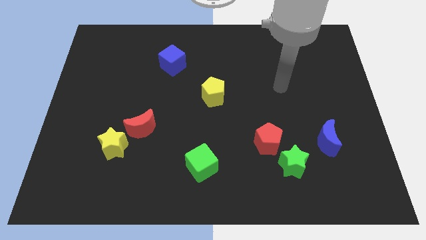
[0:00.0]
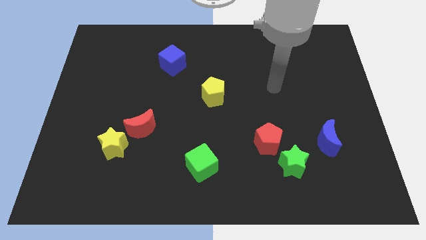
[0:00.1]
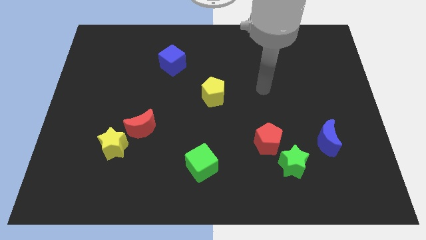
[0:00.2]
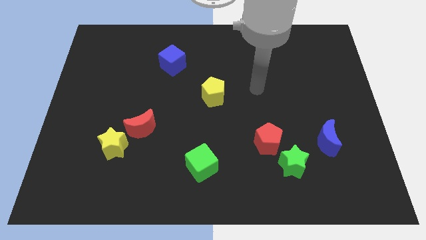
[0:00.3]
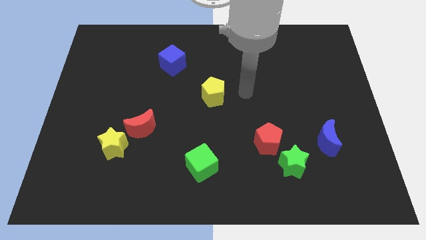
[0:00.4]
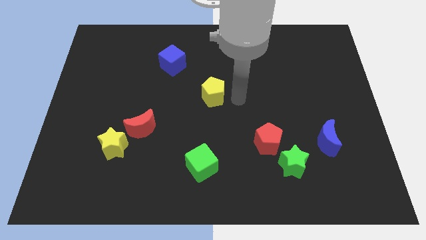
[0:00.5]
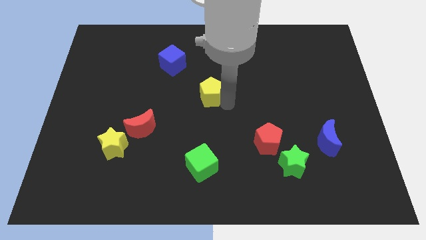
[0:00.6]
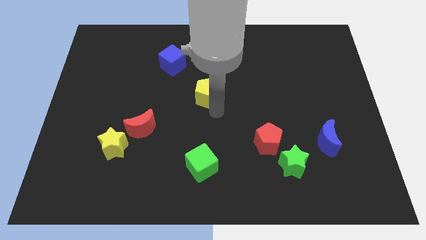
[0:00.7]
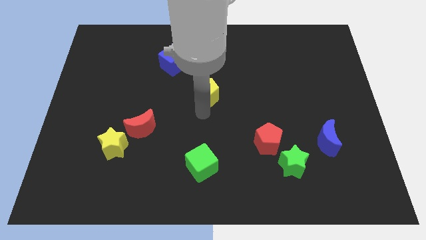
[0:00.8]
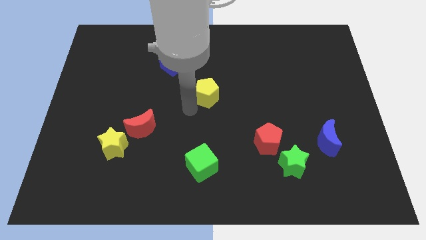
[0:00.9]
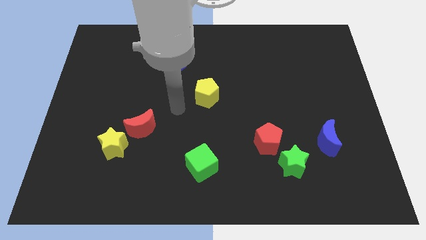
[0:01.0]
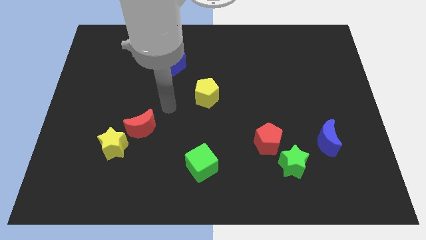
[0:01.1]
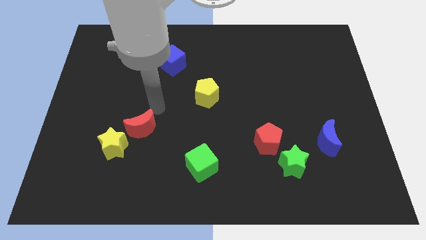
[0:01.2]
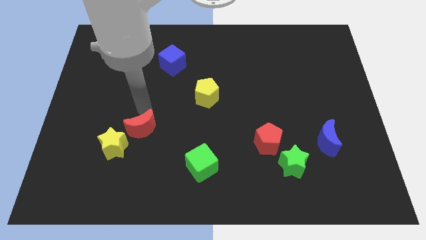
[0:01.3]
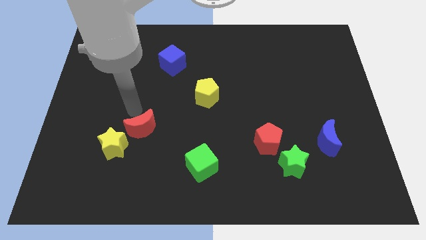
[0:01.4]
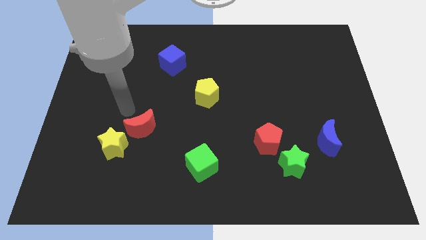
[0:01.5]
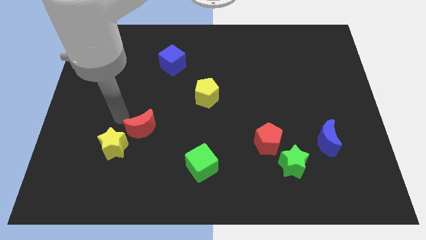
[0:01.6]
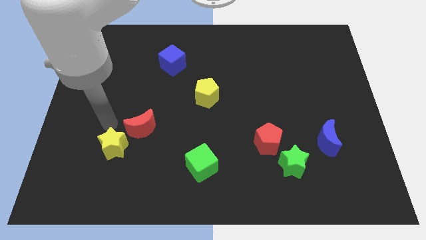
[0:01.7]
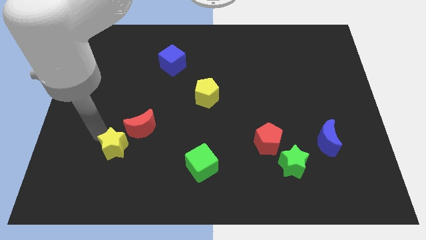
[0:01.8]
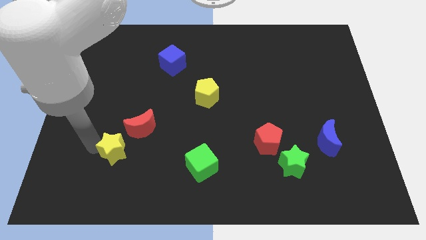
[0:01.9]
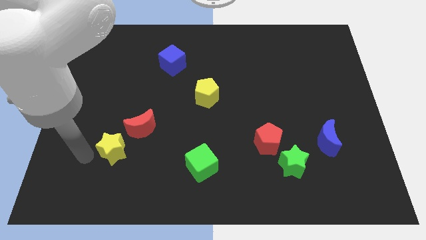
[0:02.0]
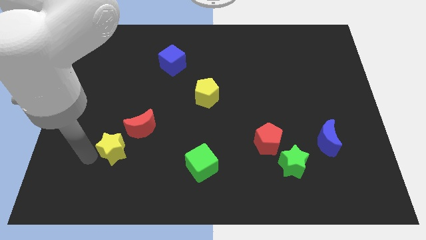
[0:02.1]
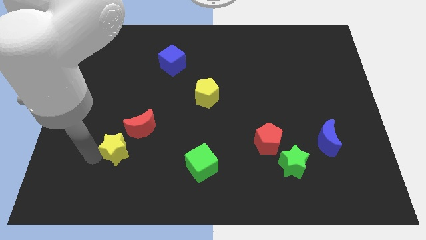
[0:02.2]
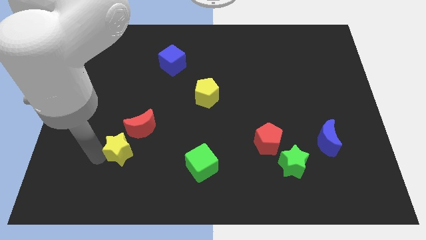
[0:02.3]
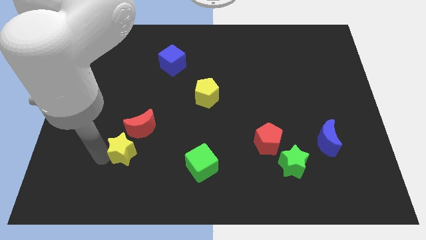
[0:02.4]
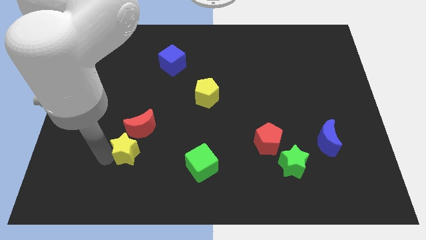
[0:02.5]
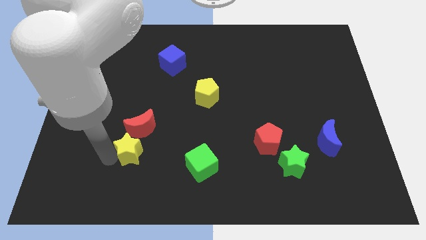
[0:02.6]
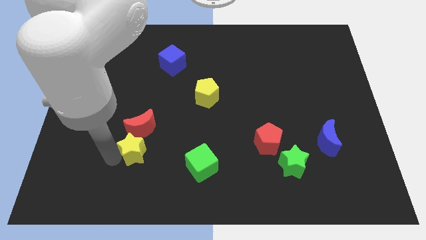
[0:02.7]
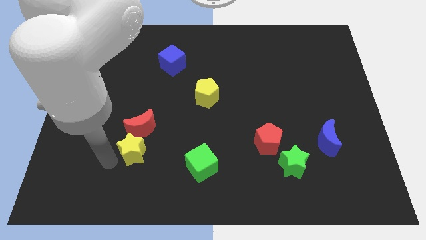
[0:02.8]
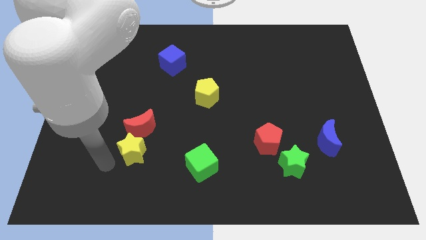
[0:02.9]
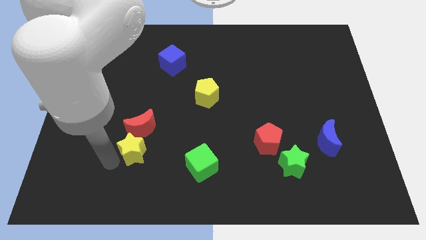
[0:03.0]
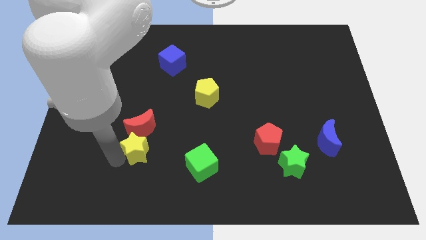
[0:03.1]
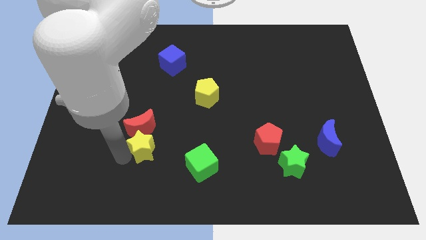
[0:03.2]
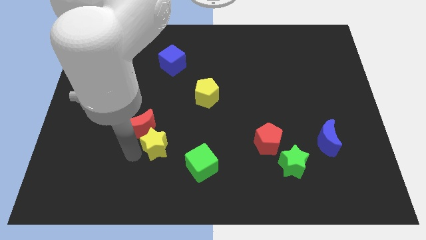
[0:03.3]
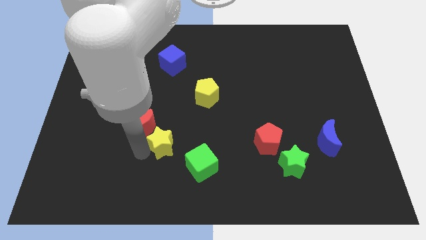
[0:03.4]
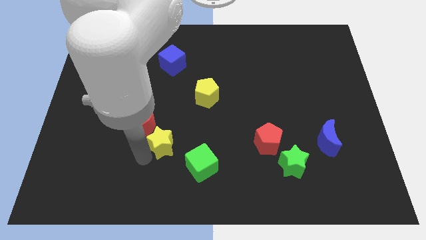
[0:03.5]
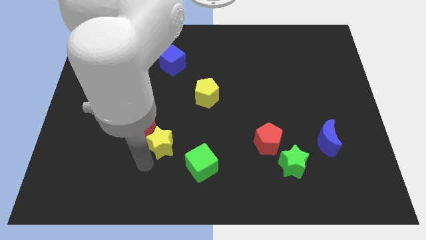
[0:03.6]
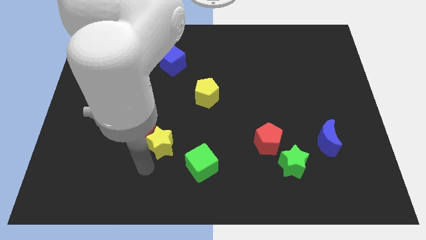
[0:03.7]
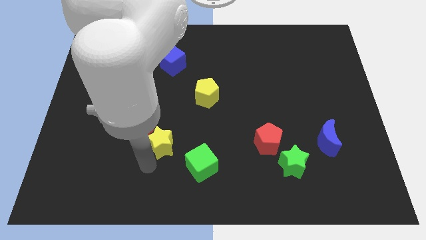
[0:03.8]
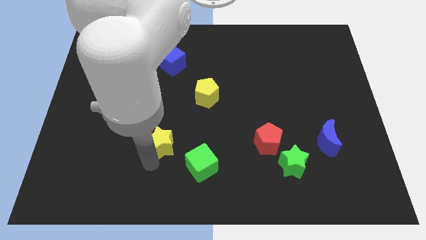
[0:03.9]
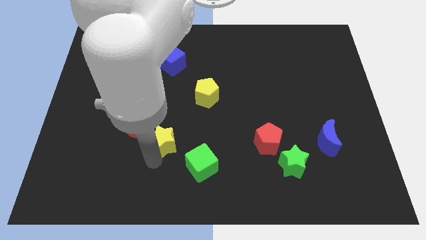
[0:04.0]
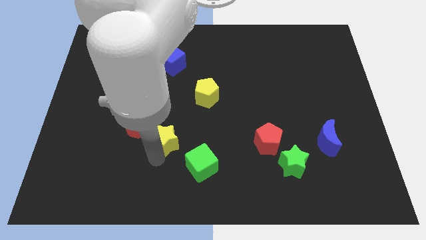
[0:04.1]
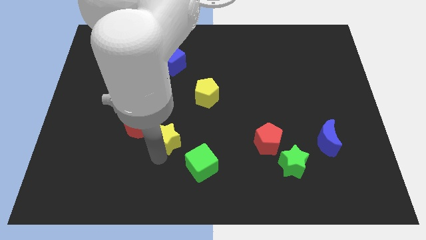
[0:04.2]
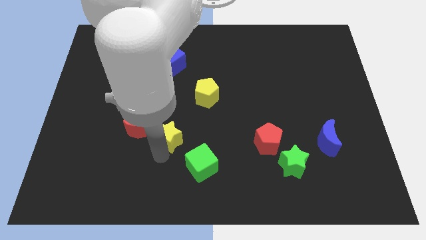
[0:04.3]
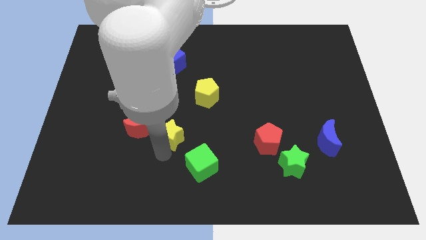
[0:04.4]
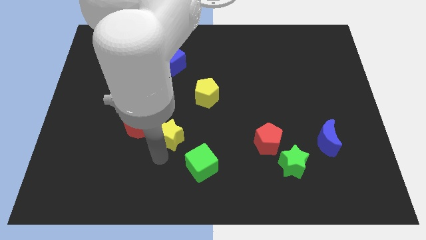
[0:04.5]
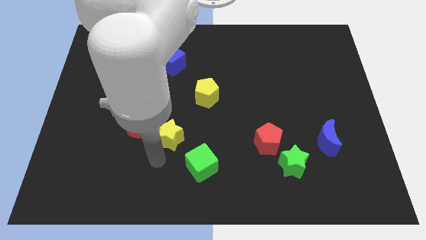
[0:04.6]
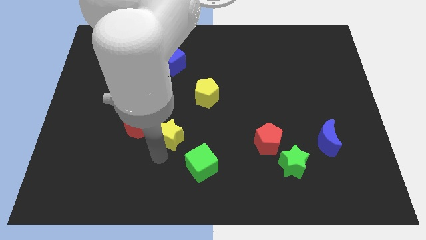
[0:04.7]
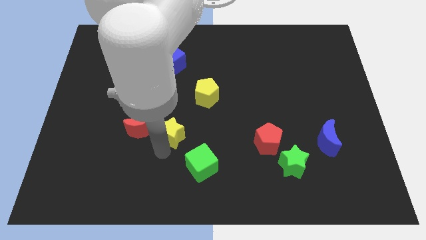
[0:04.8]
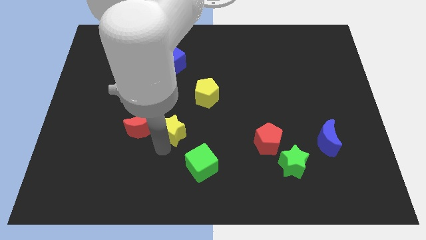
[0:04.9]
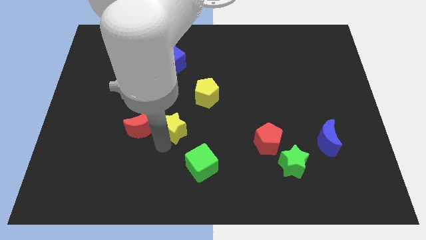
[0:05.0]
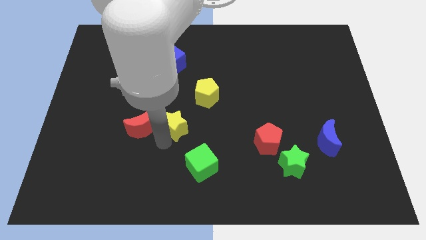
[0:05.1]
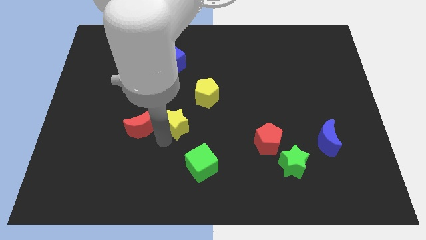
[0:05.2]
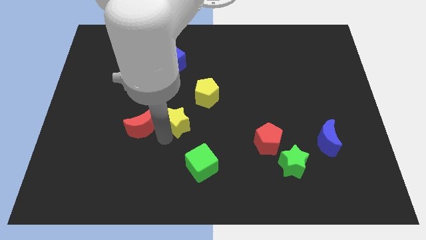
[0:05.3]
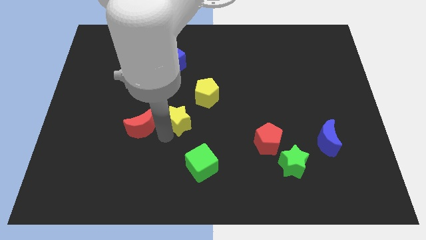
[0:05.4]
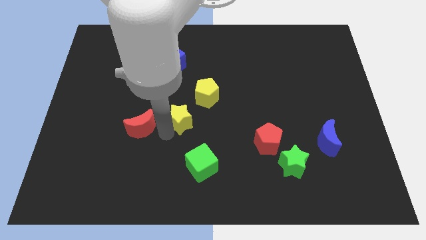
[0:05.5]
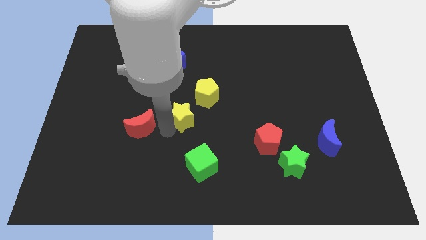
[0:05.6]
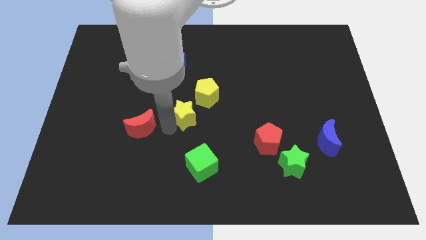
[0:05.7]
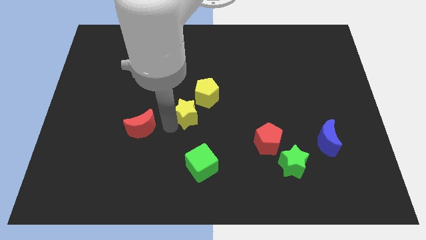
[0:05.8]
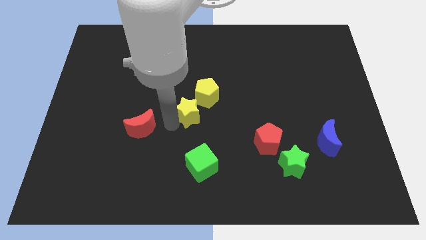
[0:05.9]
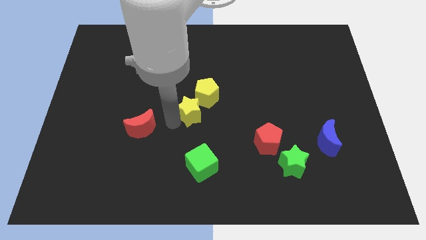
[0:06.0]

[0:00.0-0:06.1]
put the yellow star to the yellow pentagon

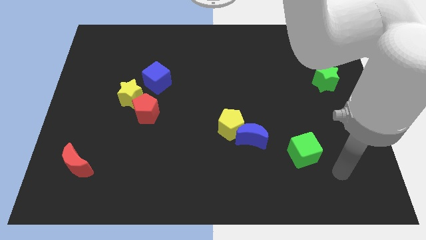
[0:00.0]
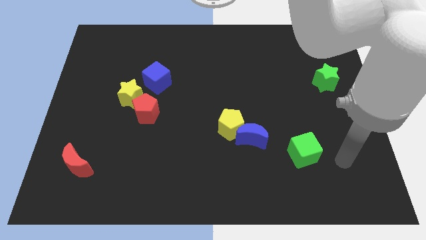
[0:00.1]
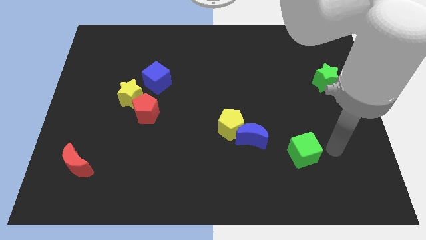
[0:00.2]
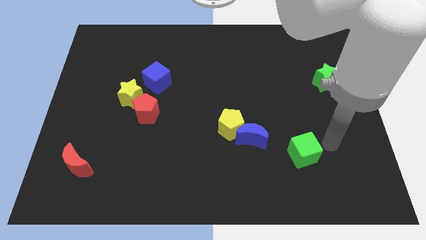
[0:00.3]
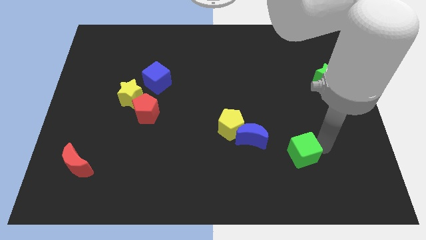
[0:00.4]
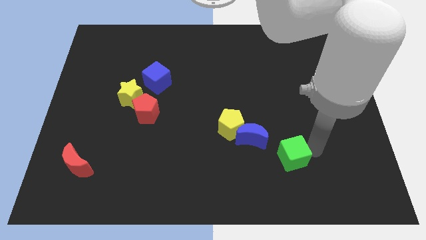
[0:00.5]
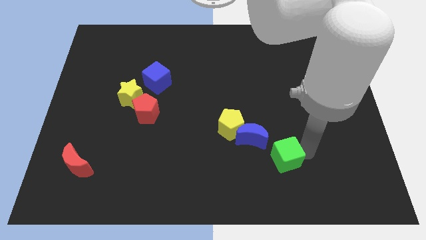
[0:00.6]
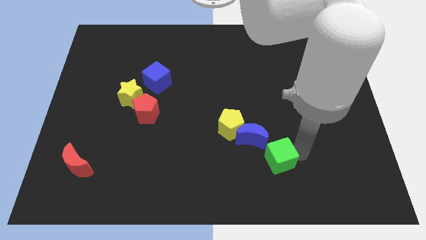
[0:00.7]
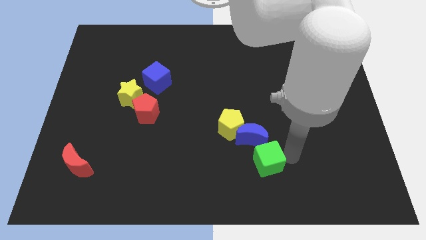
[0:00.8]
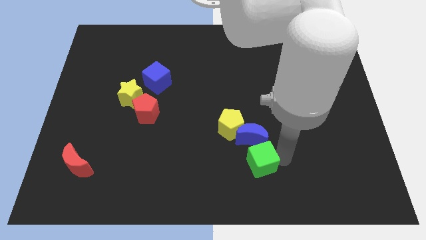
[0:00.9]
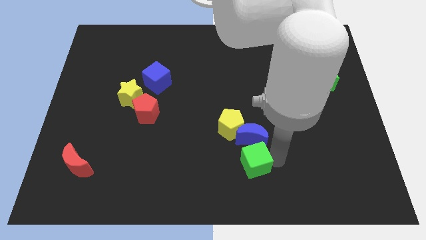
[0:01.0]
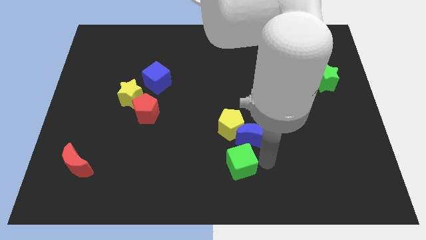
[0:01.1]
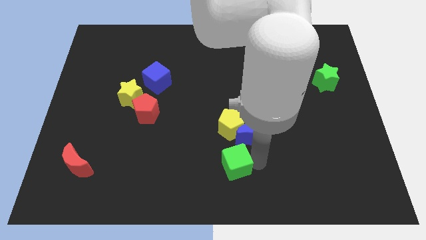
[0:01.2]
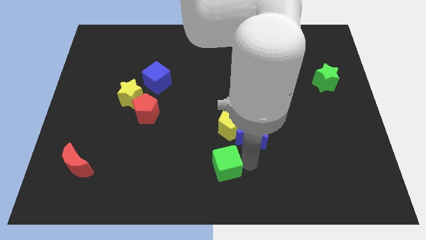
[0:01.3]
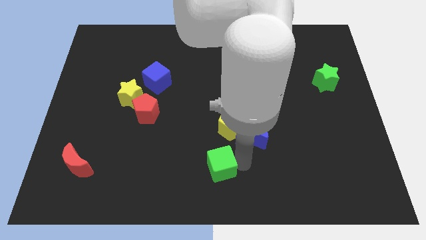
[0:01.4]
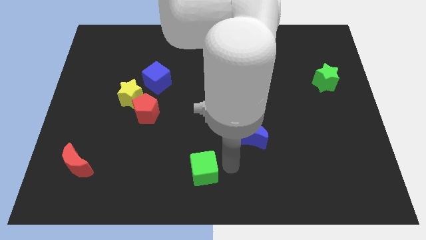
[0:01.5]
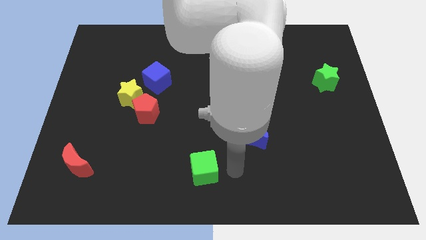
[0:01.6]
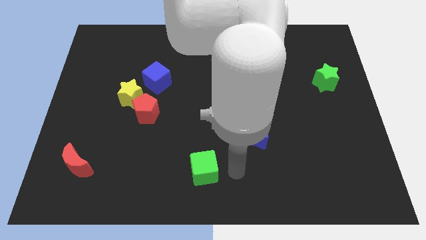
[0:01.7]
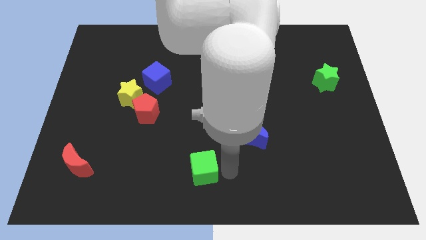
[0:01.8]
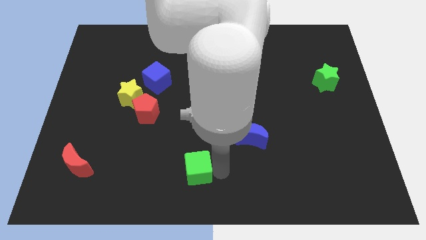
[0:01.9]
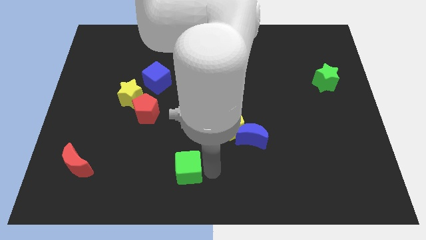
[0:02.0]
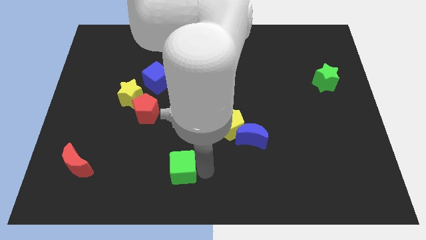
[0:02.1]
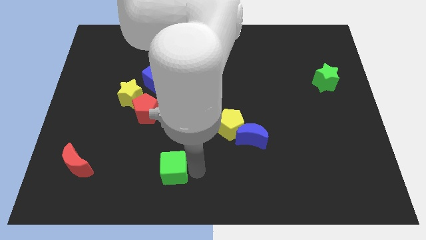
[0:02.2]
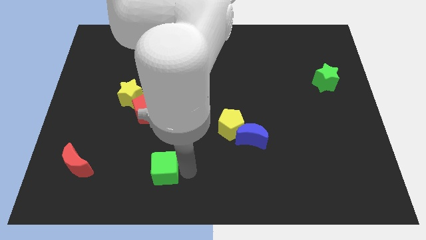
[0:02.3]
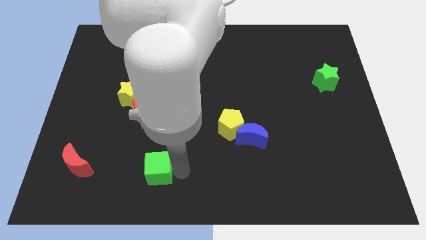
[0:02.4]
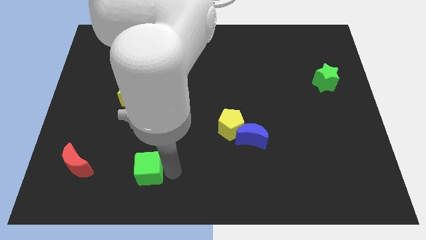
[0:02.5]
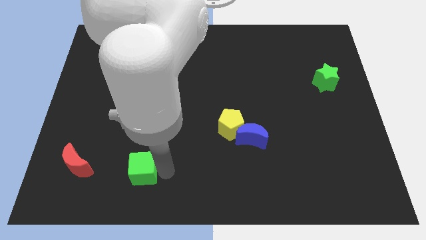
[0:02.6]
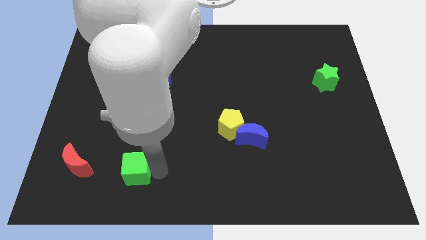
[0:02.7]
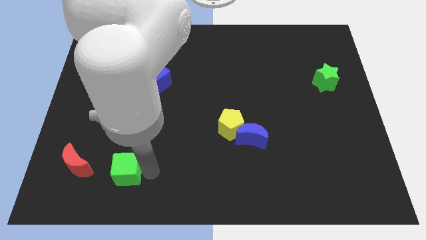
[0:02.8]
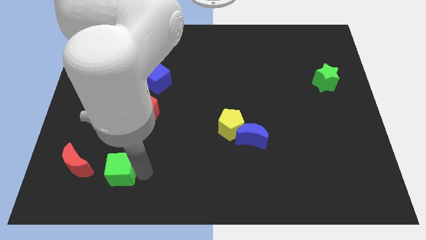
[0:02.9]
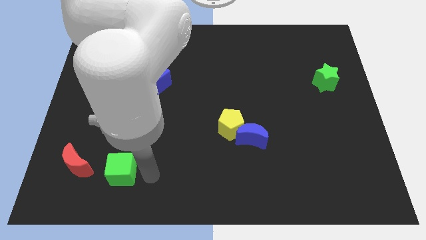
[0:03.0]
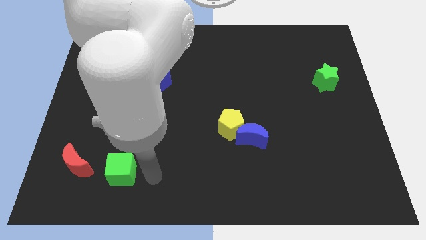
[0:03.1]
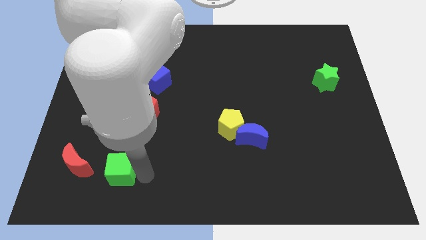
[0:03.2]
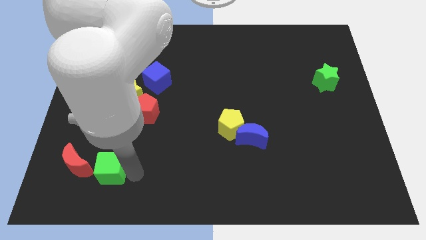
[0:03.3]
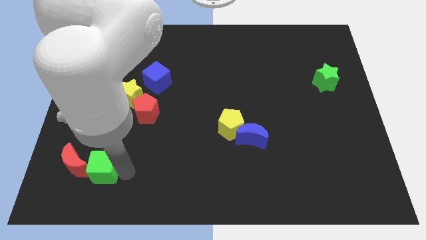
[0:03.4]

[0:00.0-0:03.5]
slide the green cube to the red moon
